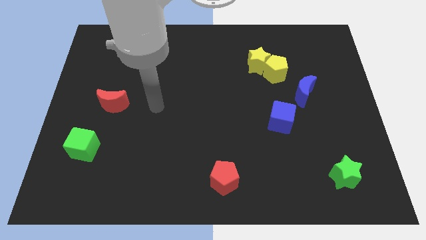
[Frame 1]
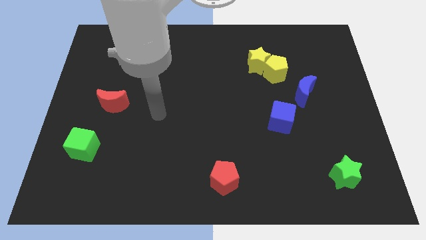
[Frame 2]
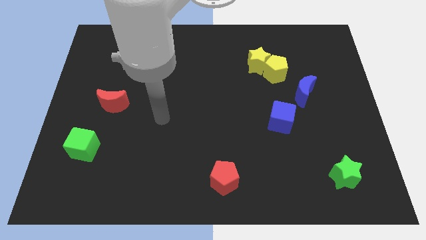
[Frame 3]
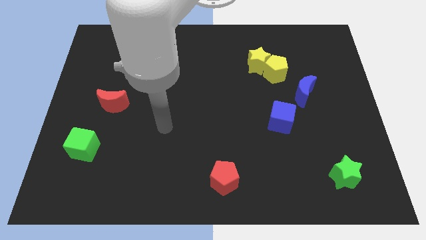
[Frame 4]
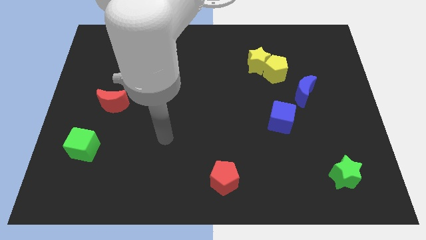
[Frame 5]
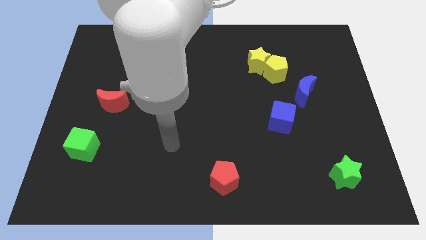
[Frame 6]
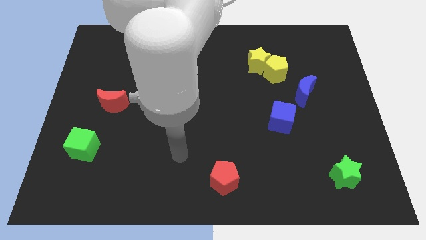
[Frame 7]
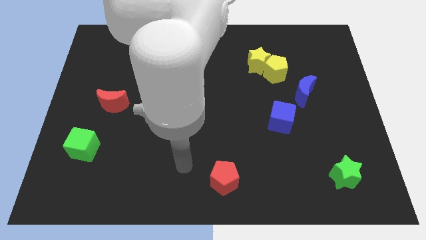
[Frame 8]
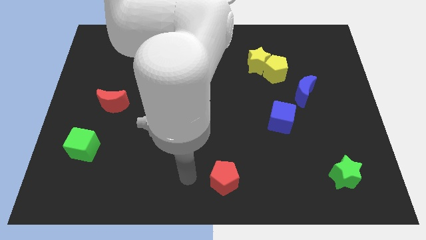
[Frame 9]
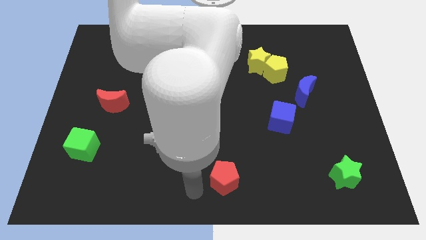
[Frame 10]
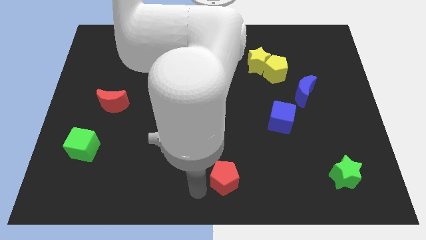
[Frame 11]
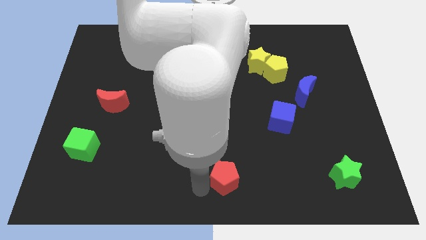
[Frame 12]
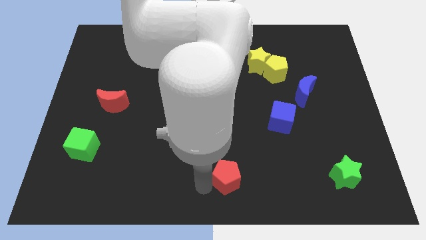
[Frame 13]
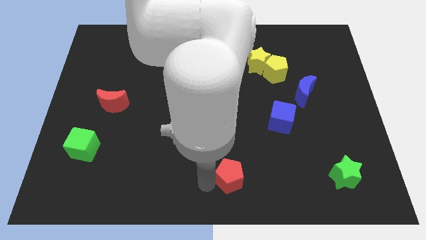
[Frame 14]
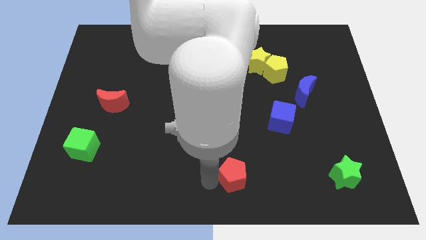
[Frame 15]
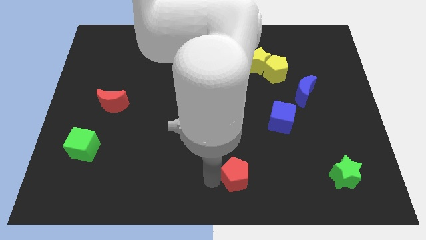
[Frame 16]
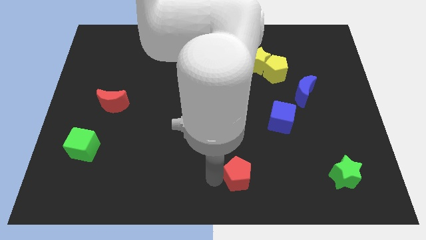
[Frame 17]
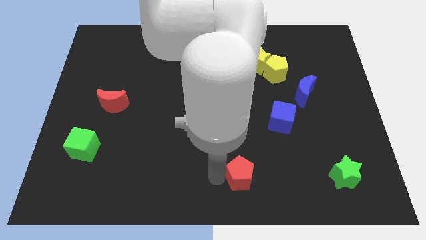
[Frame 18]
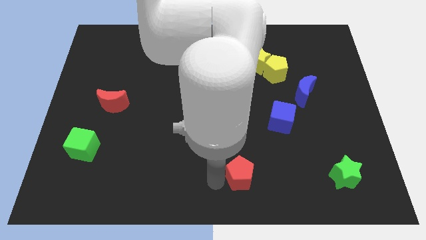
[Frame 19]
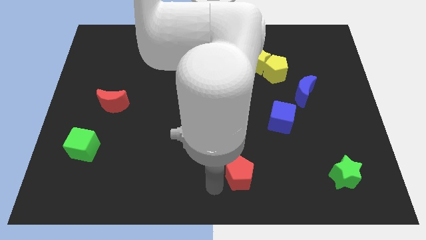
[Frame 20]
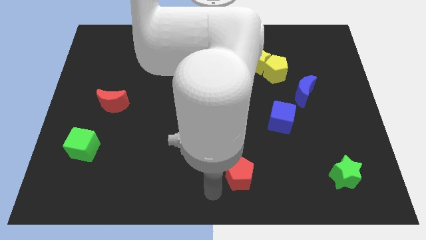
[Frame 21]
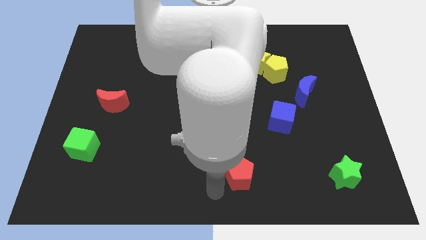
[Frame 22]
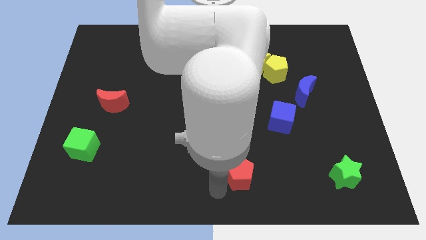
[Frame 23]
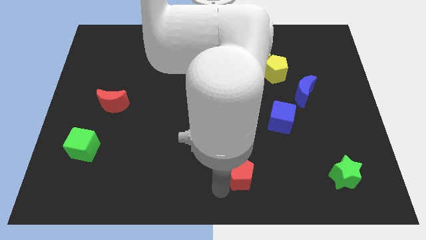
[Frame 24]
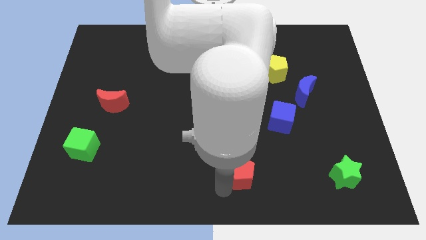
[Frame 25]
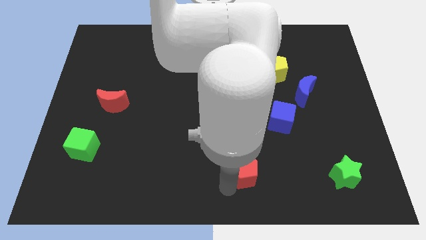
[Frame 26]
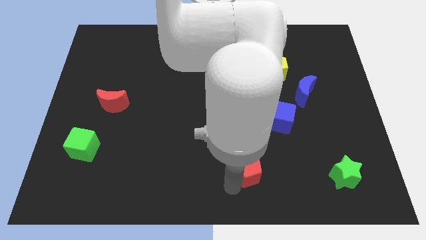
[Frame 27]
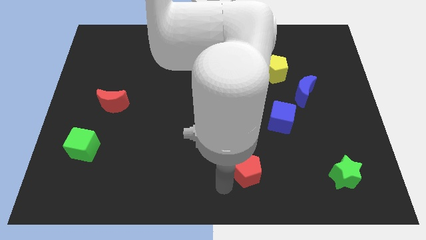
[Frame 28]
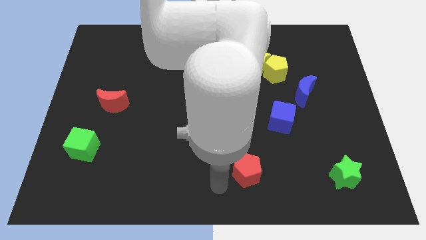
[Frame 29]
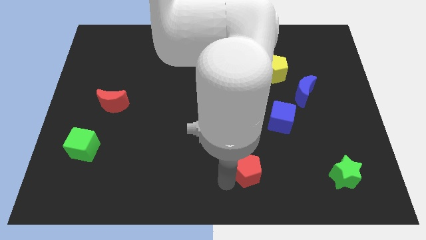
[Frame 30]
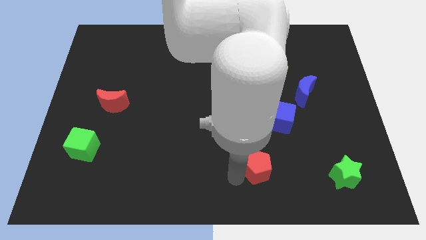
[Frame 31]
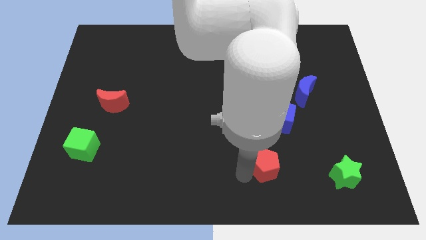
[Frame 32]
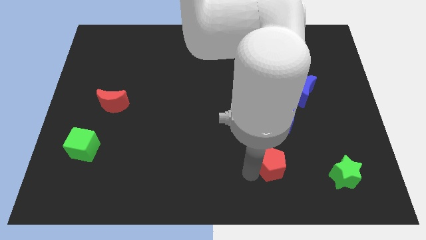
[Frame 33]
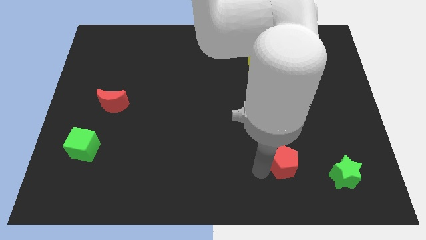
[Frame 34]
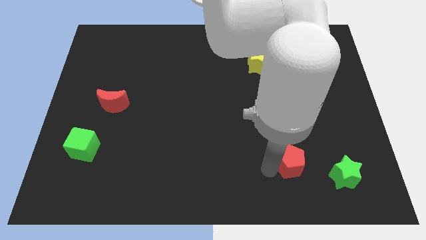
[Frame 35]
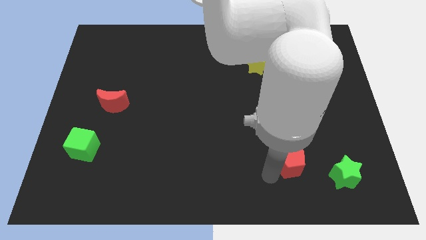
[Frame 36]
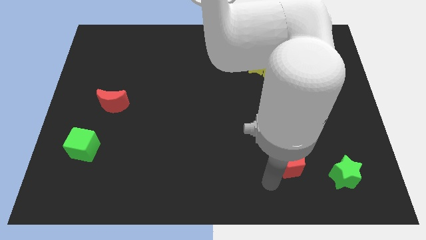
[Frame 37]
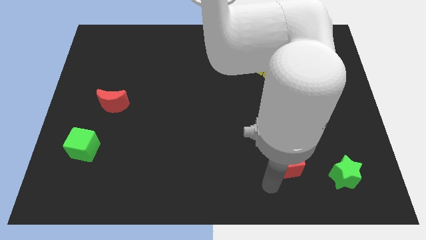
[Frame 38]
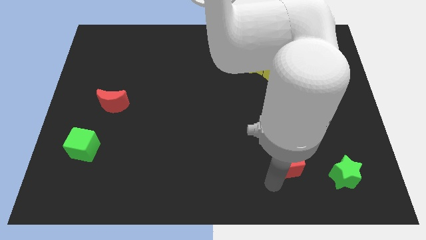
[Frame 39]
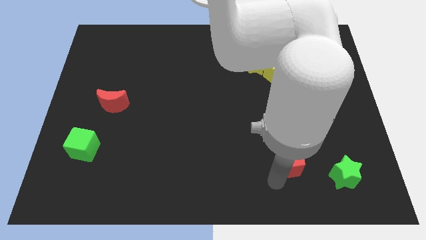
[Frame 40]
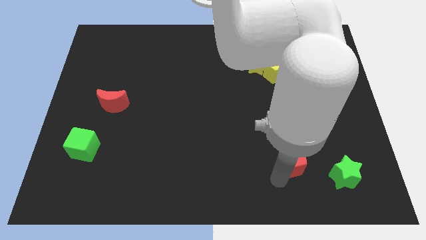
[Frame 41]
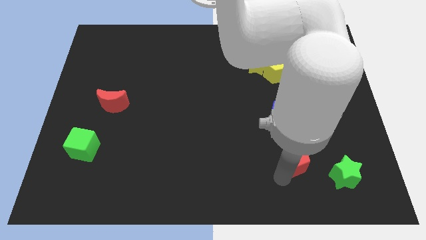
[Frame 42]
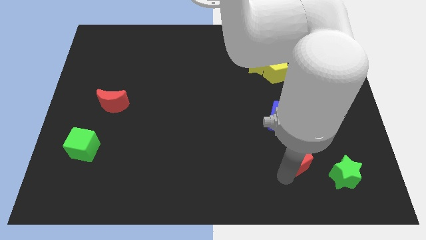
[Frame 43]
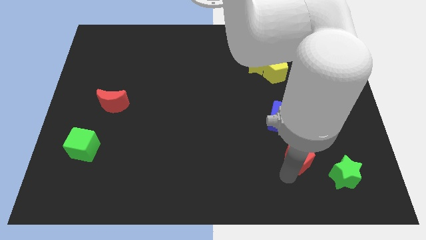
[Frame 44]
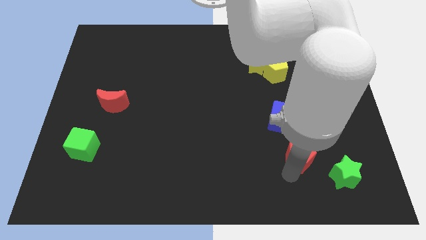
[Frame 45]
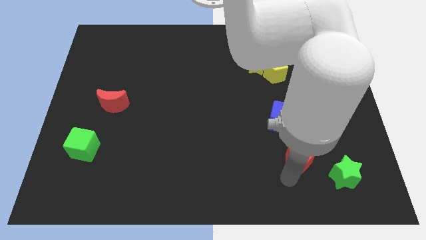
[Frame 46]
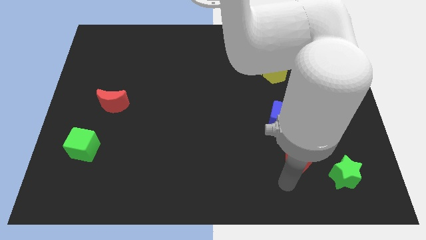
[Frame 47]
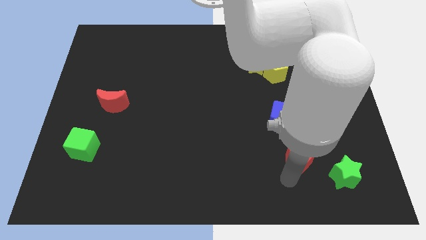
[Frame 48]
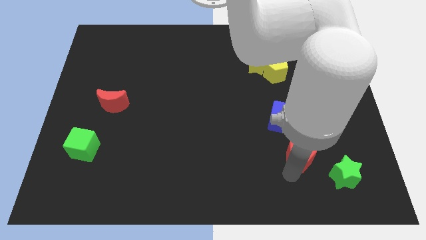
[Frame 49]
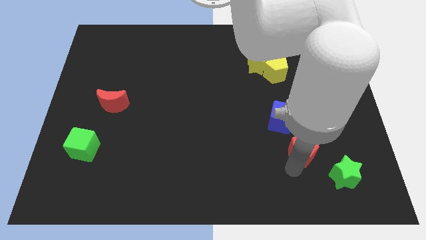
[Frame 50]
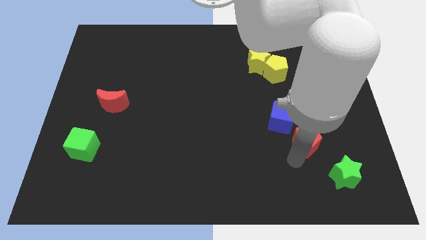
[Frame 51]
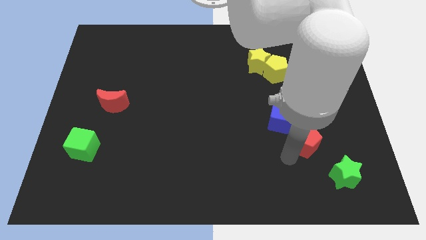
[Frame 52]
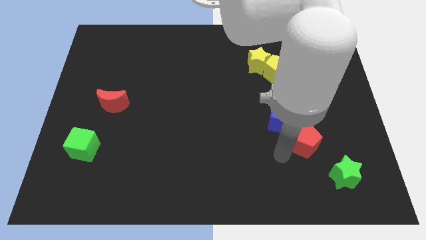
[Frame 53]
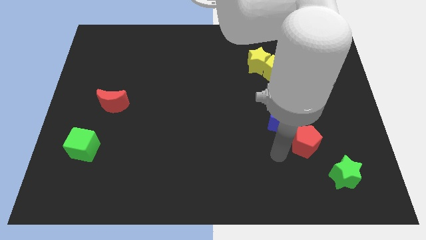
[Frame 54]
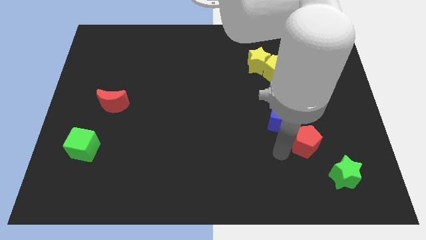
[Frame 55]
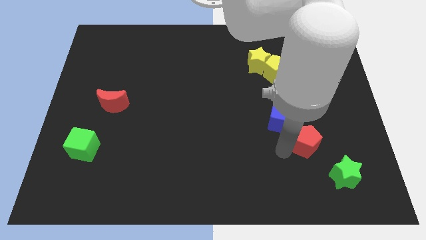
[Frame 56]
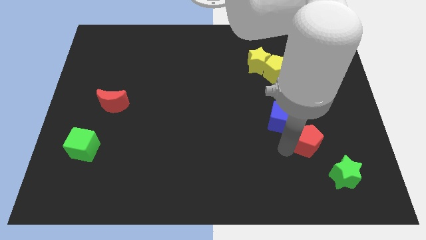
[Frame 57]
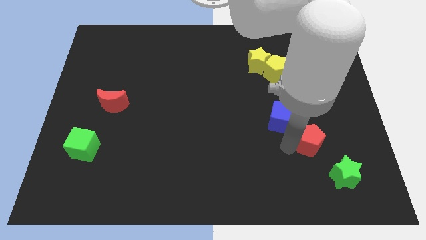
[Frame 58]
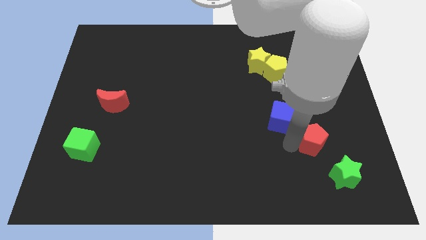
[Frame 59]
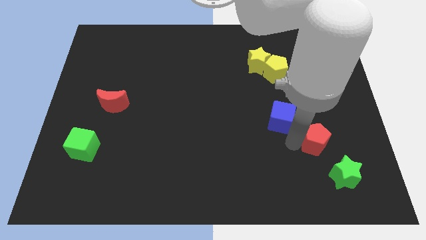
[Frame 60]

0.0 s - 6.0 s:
put the red pentagon above the green star
